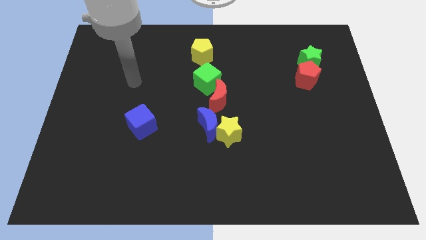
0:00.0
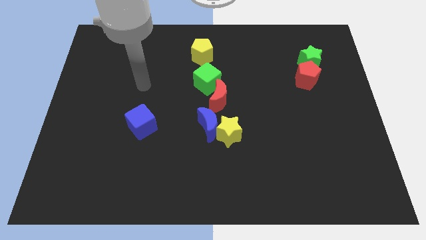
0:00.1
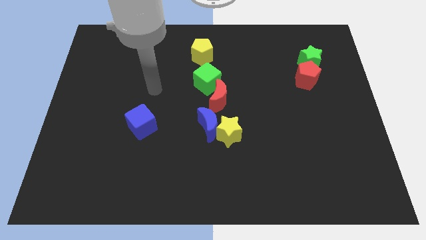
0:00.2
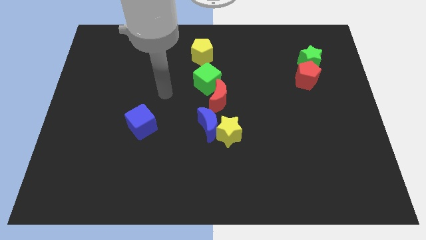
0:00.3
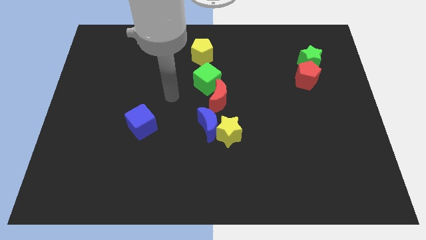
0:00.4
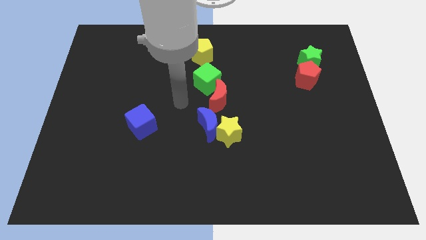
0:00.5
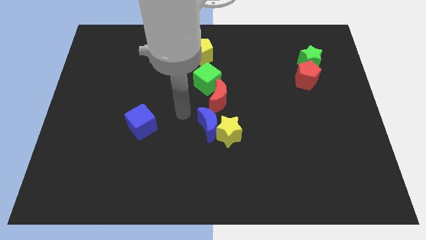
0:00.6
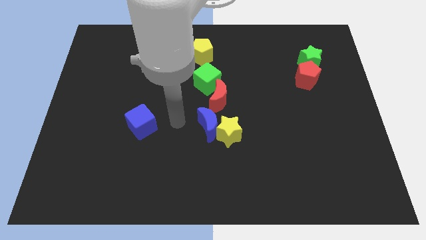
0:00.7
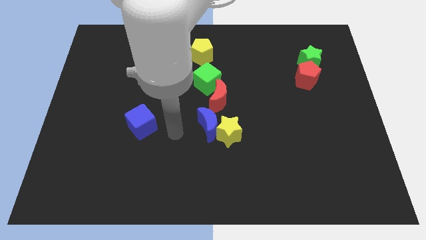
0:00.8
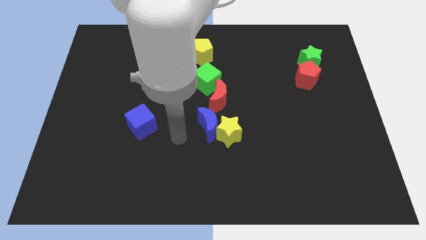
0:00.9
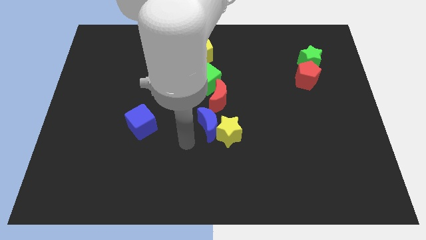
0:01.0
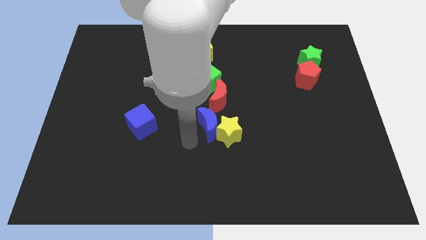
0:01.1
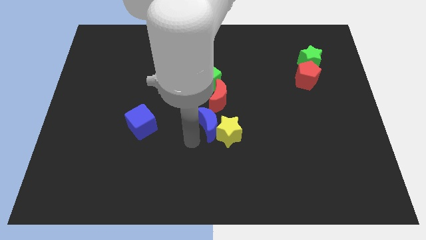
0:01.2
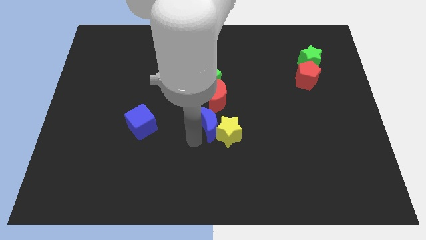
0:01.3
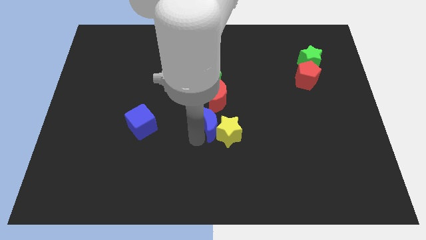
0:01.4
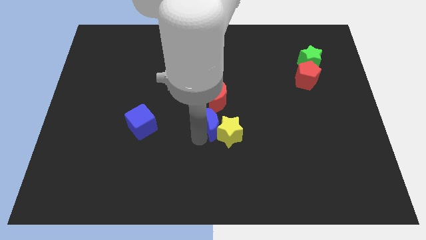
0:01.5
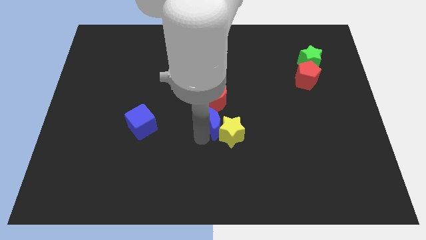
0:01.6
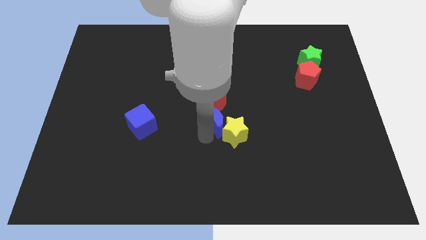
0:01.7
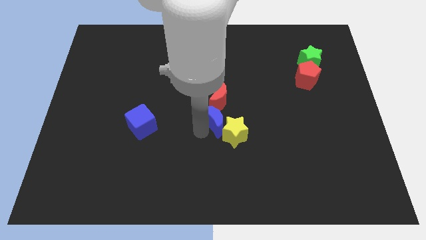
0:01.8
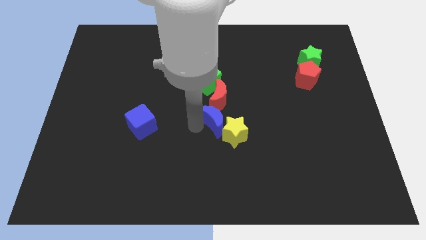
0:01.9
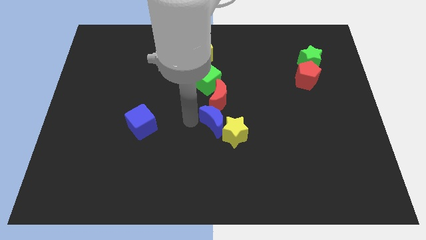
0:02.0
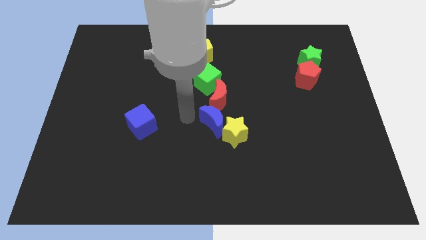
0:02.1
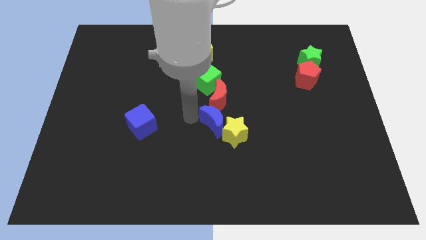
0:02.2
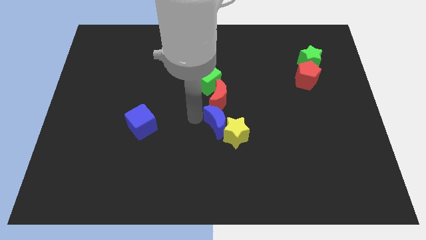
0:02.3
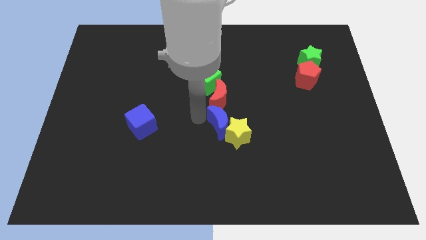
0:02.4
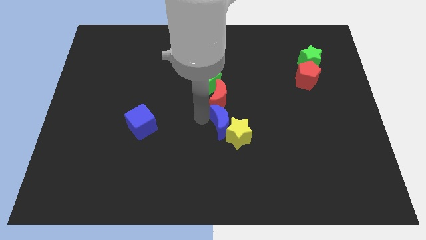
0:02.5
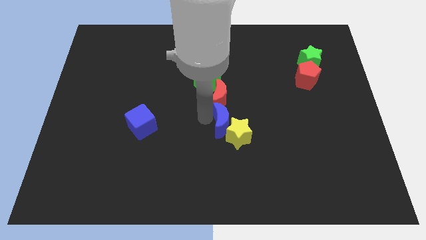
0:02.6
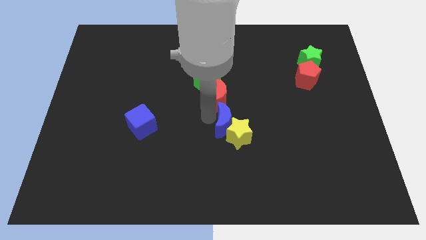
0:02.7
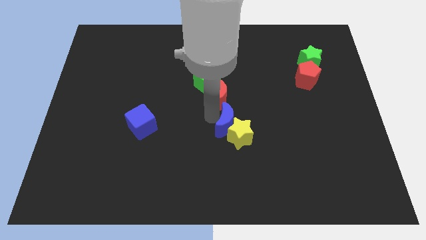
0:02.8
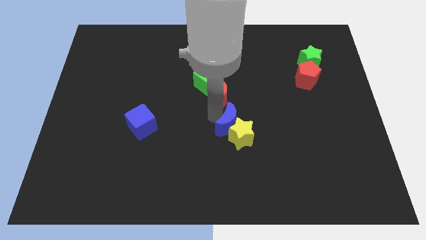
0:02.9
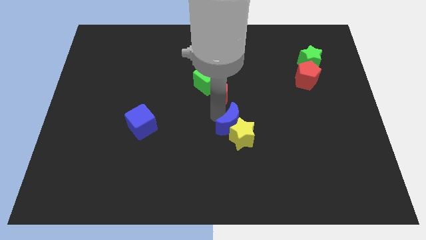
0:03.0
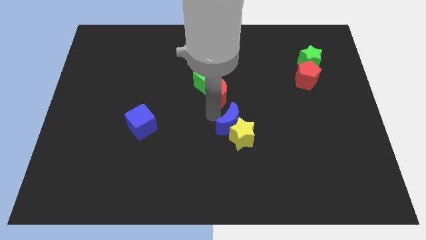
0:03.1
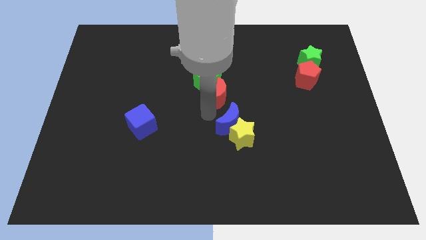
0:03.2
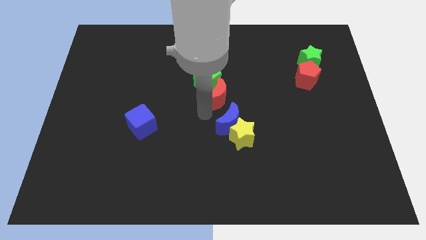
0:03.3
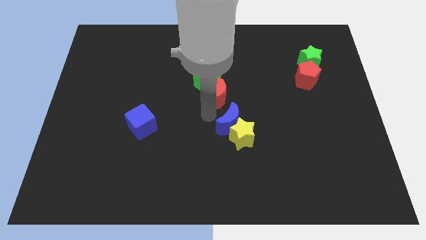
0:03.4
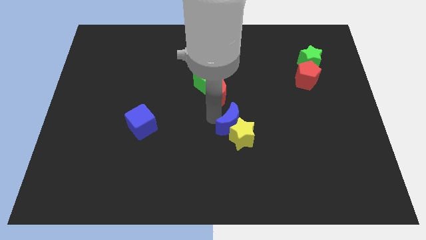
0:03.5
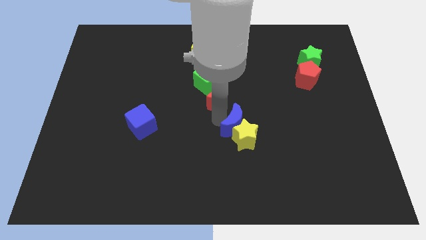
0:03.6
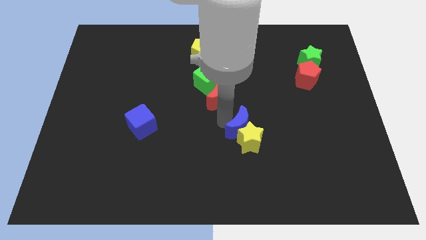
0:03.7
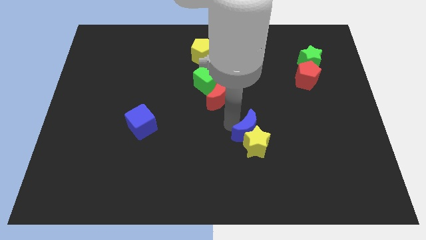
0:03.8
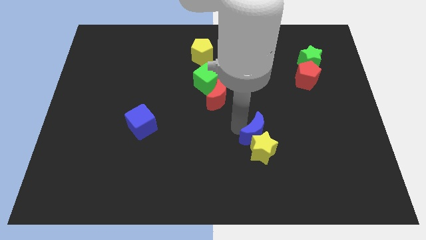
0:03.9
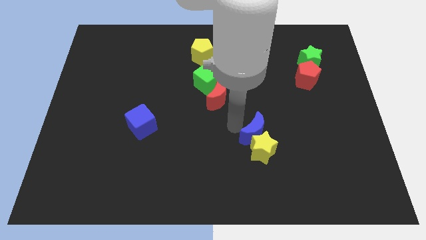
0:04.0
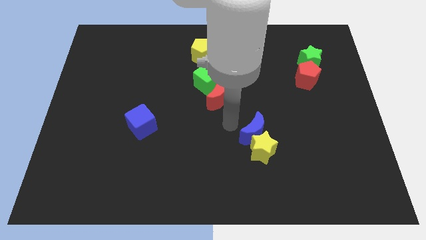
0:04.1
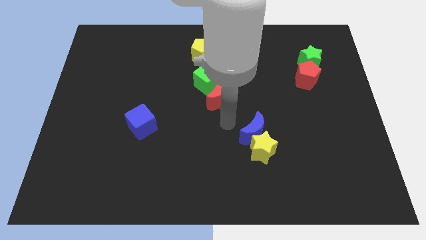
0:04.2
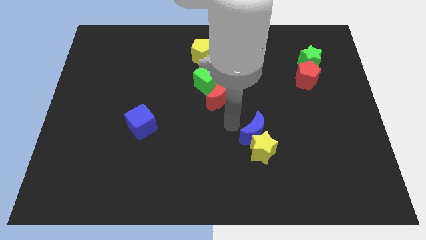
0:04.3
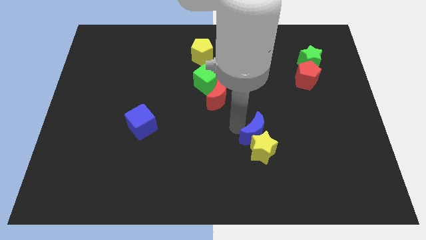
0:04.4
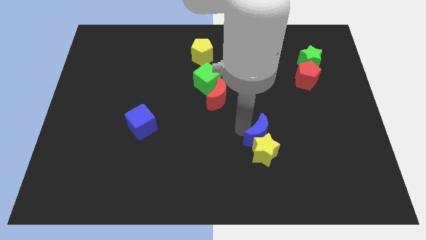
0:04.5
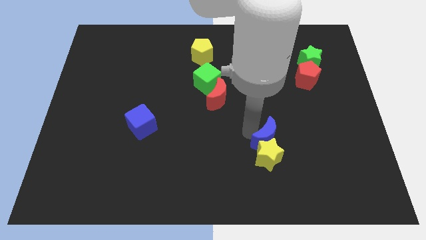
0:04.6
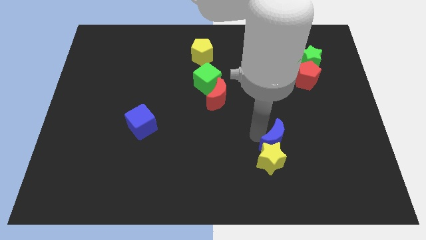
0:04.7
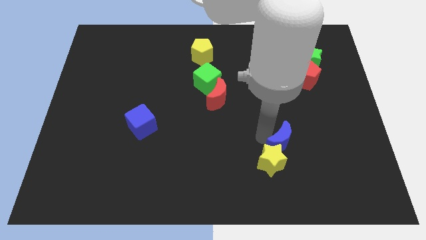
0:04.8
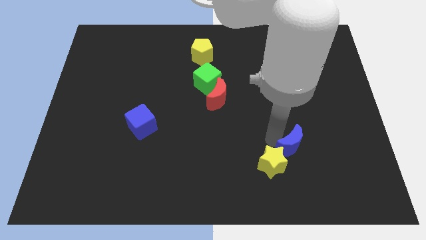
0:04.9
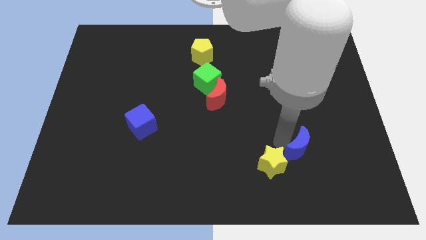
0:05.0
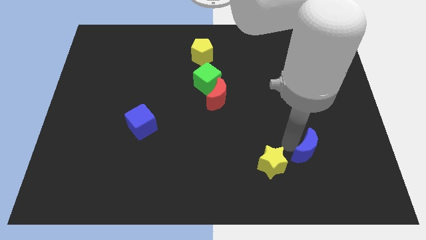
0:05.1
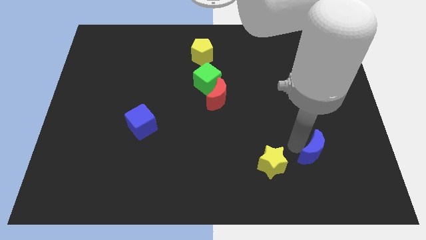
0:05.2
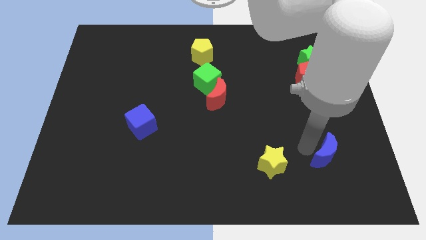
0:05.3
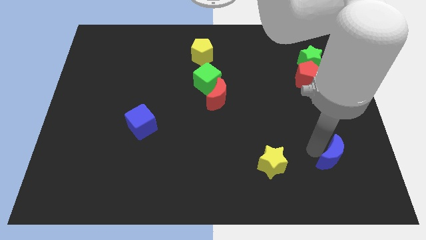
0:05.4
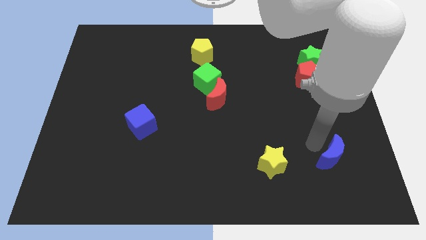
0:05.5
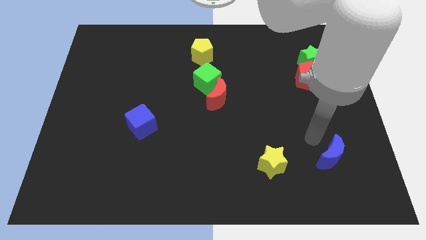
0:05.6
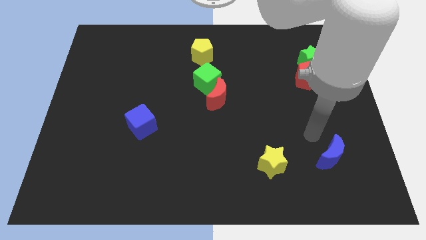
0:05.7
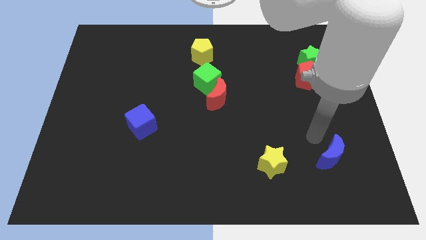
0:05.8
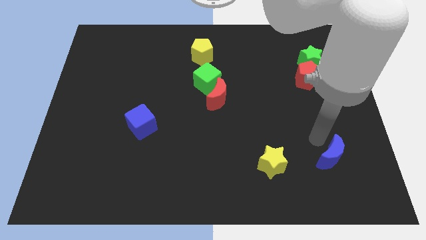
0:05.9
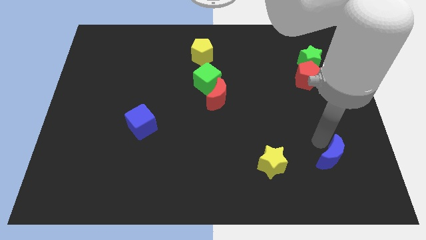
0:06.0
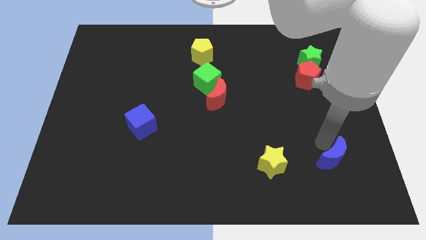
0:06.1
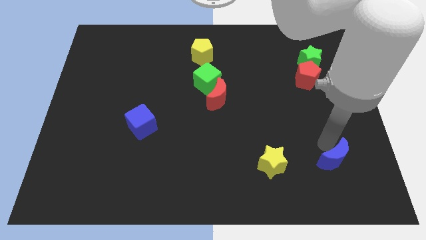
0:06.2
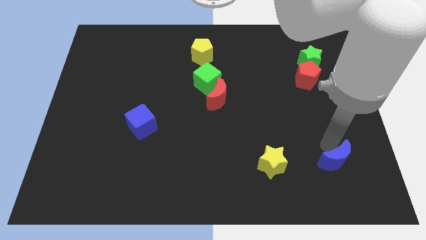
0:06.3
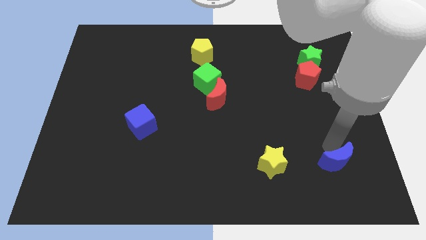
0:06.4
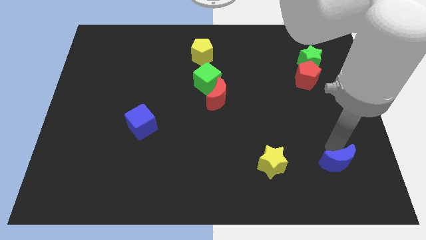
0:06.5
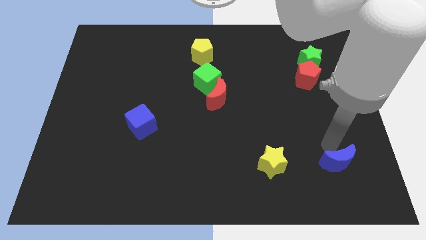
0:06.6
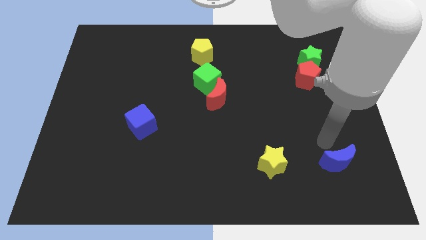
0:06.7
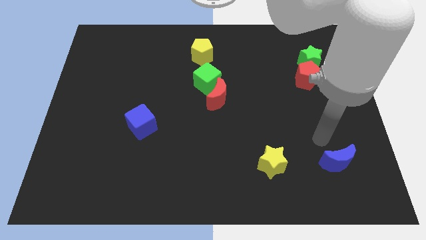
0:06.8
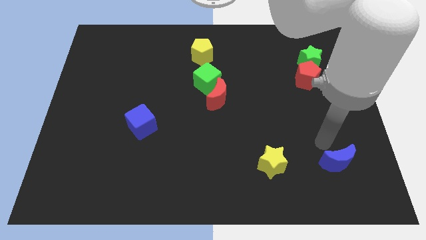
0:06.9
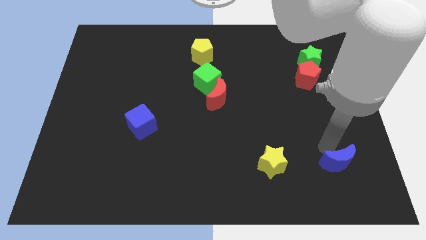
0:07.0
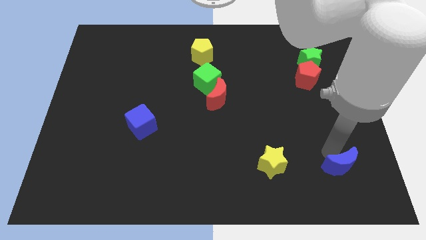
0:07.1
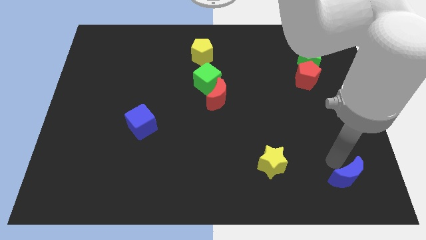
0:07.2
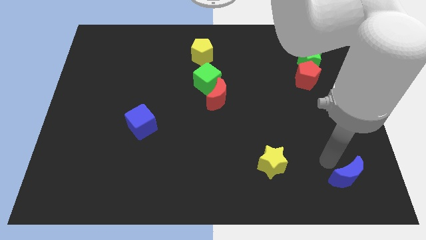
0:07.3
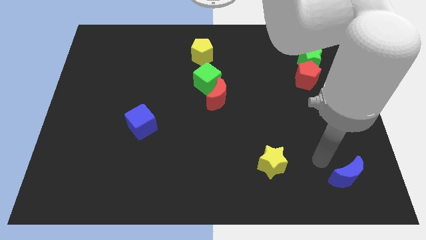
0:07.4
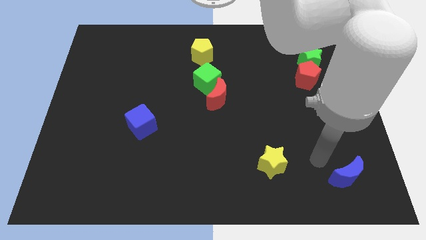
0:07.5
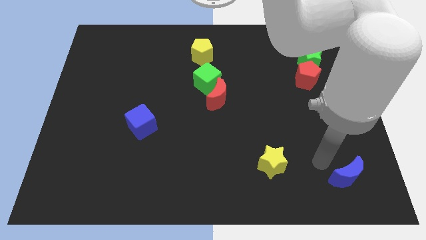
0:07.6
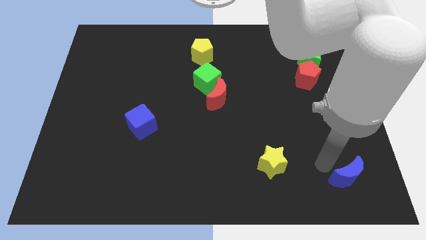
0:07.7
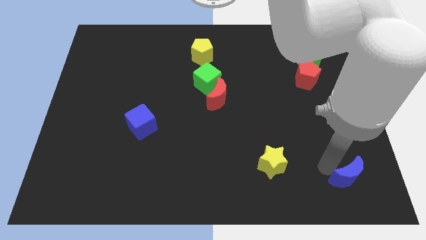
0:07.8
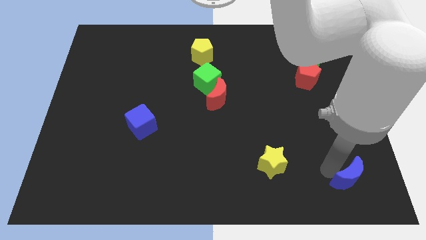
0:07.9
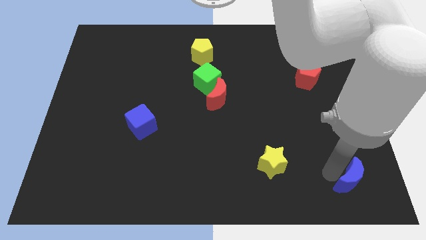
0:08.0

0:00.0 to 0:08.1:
push the blue moon to the bottom right
